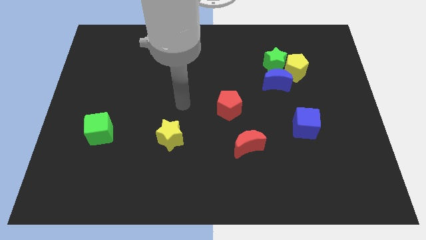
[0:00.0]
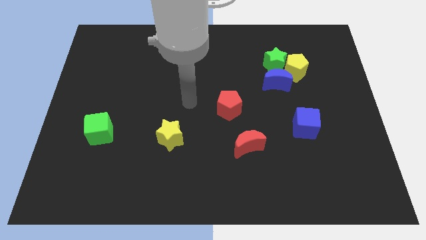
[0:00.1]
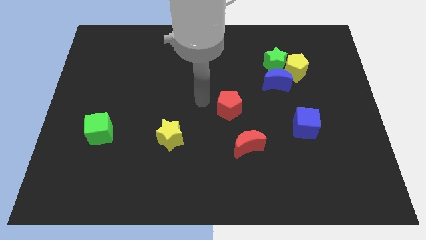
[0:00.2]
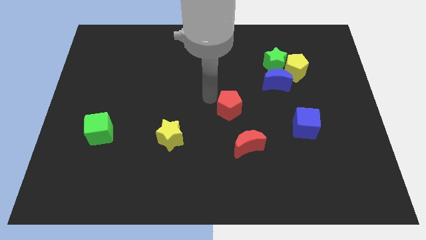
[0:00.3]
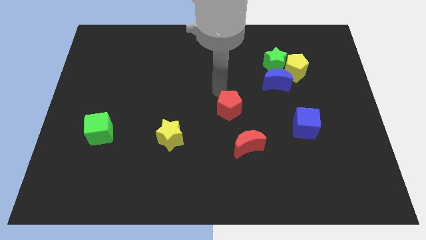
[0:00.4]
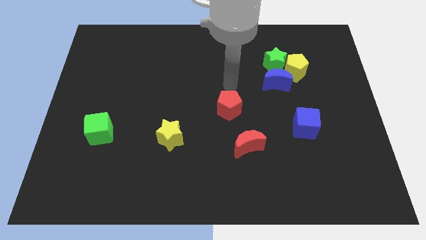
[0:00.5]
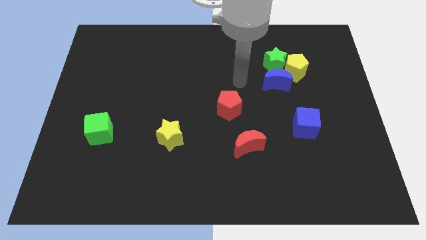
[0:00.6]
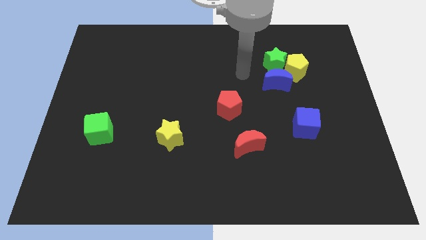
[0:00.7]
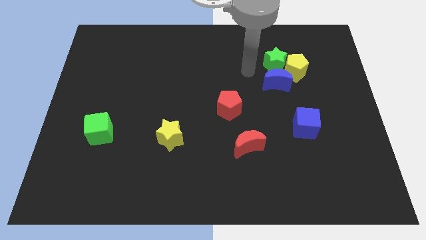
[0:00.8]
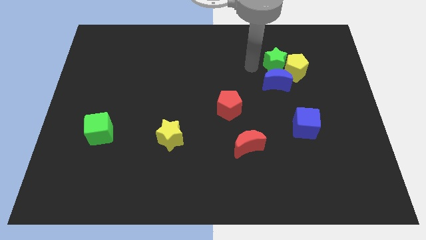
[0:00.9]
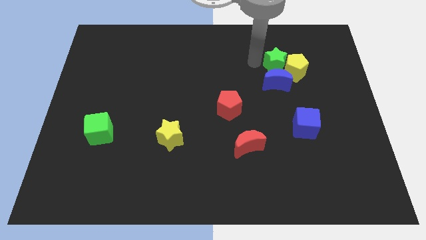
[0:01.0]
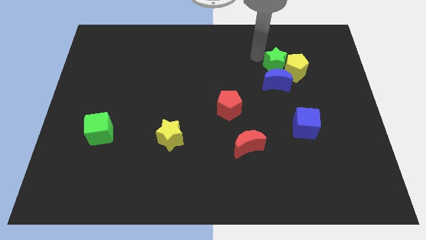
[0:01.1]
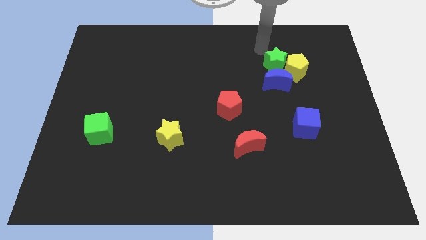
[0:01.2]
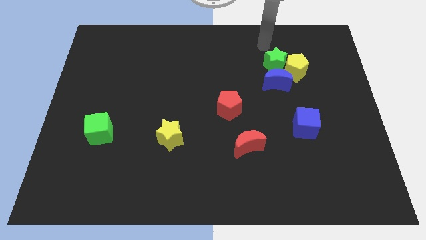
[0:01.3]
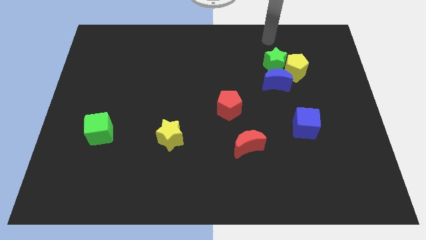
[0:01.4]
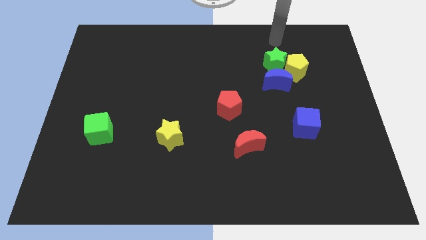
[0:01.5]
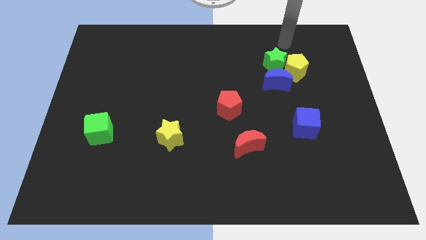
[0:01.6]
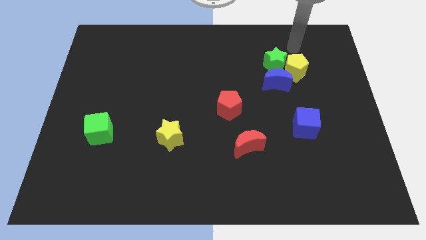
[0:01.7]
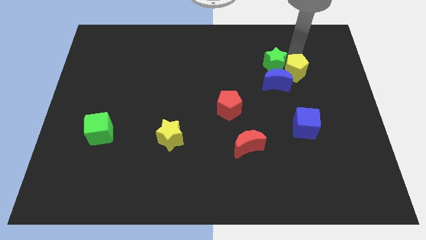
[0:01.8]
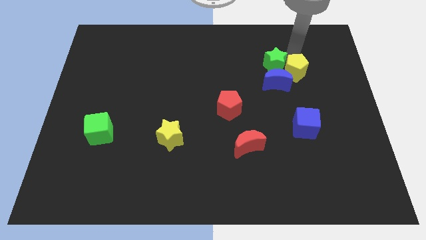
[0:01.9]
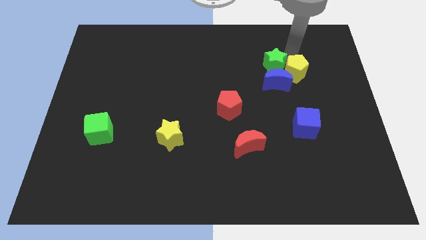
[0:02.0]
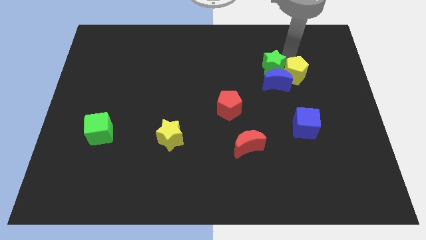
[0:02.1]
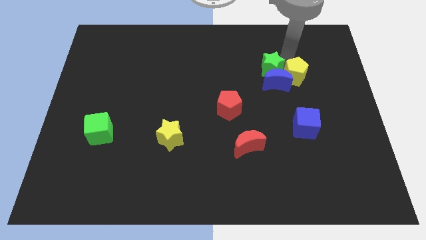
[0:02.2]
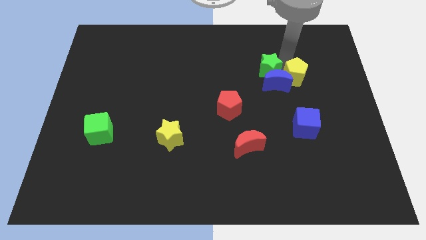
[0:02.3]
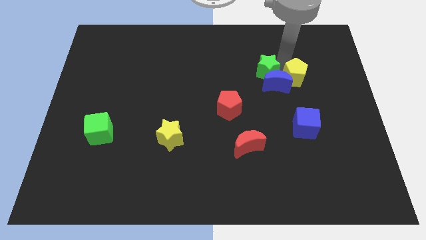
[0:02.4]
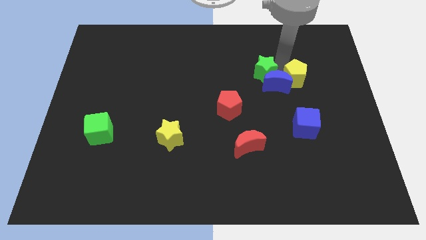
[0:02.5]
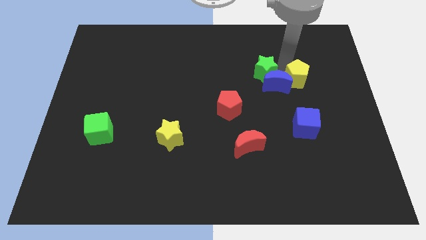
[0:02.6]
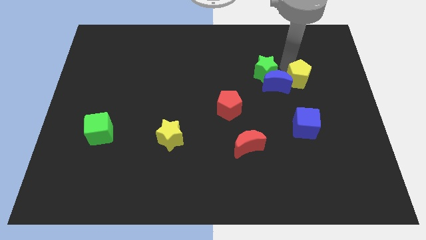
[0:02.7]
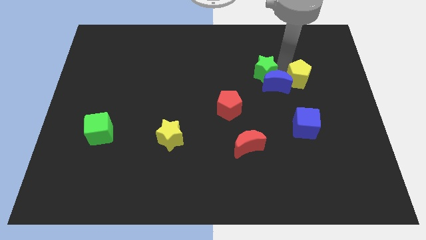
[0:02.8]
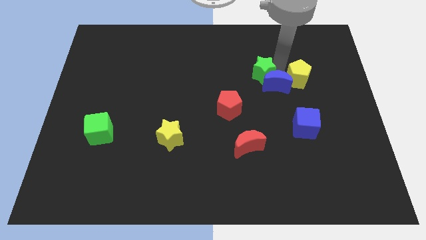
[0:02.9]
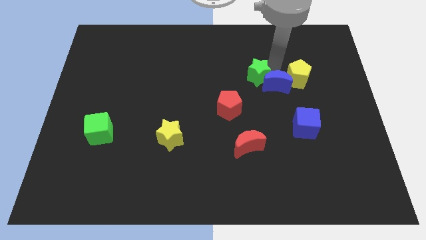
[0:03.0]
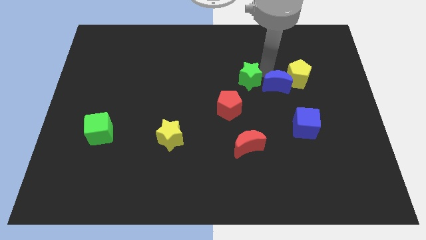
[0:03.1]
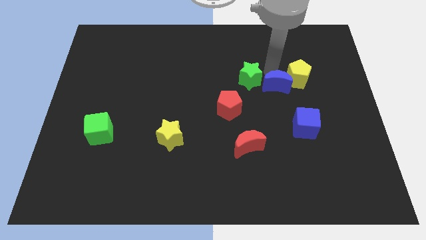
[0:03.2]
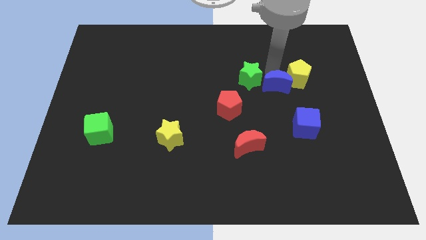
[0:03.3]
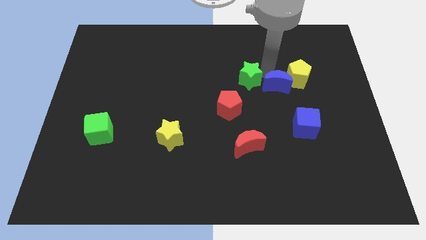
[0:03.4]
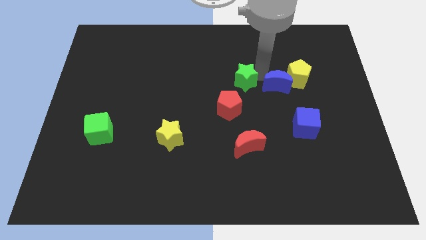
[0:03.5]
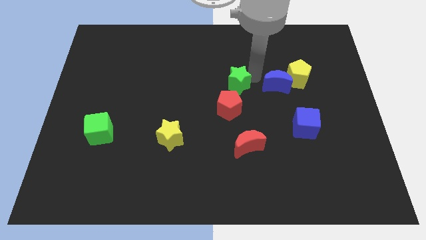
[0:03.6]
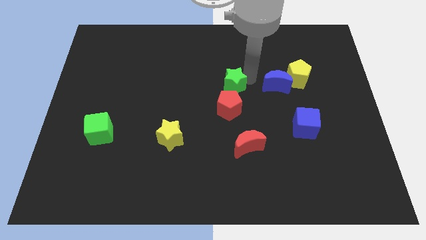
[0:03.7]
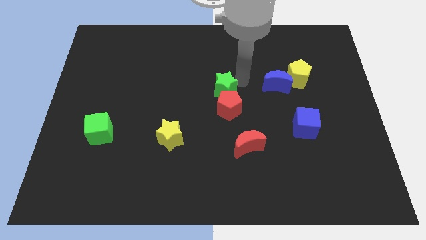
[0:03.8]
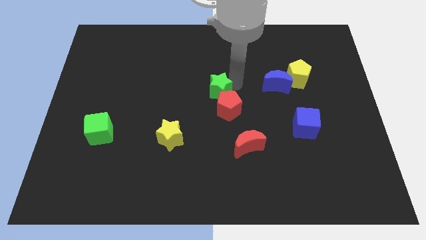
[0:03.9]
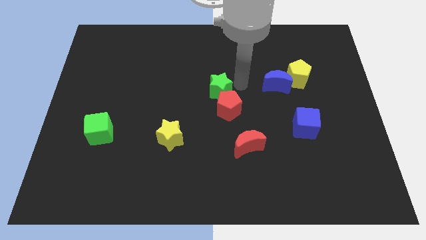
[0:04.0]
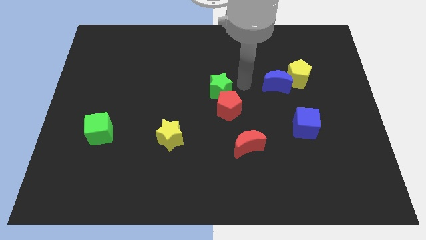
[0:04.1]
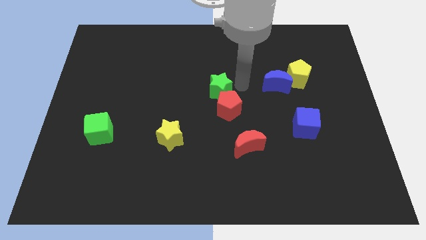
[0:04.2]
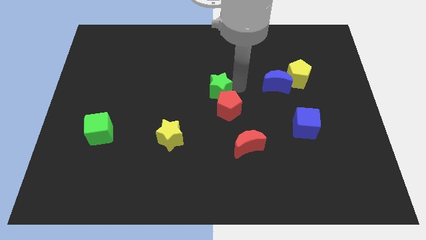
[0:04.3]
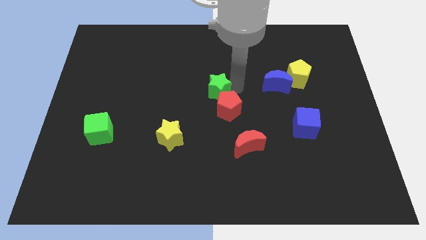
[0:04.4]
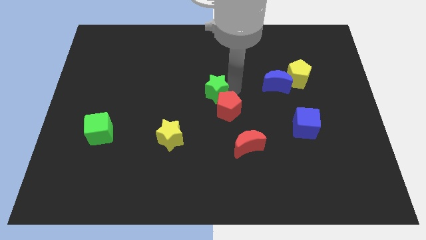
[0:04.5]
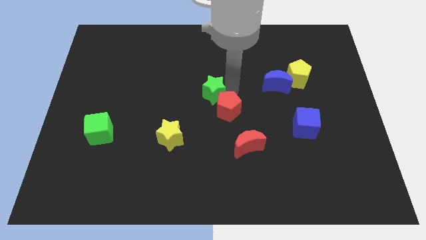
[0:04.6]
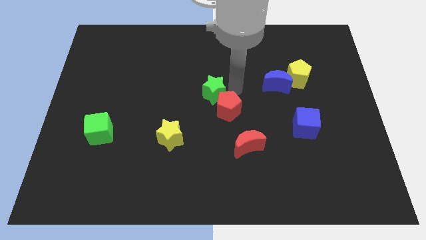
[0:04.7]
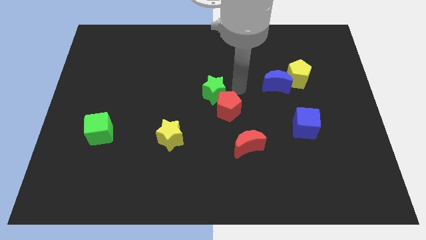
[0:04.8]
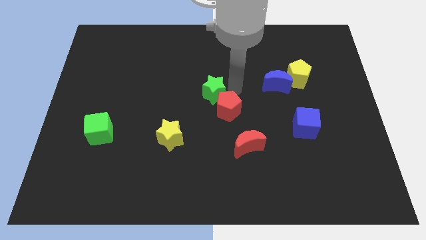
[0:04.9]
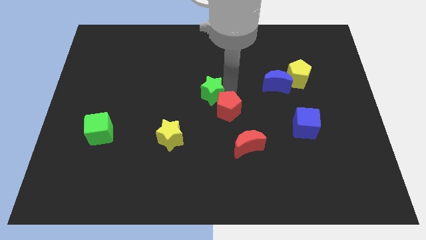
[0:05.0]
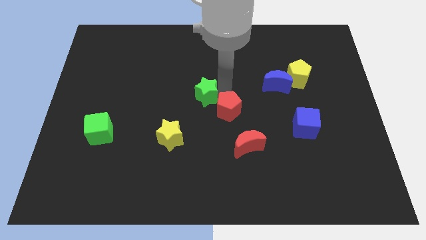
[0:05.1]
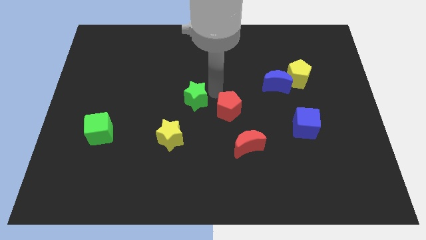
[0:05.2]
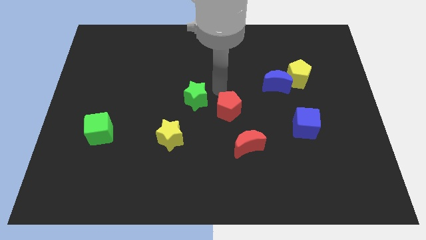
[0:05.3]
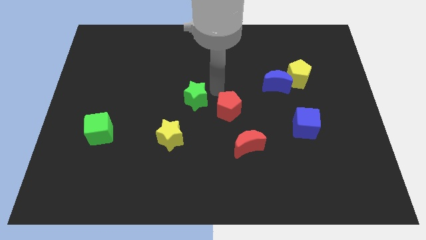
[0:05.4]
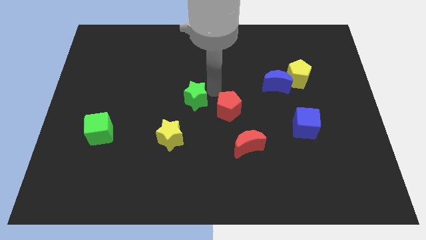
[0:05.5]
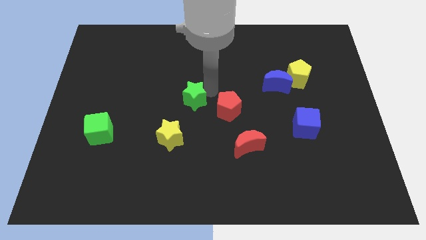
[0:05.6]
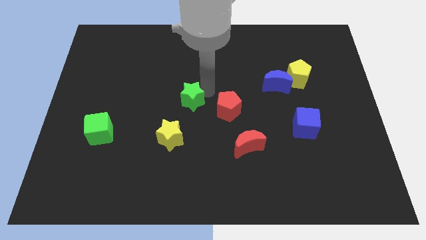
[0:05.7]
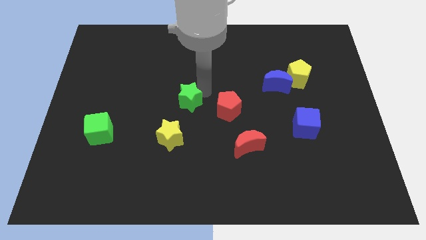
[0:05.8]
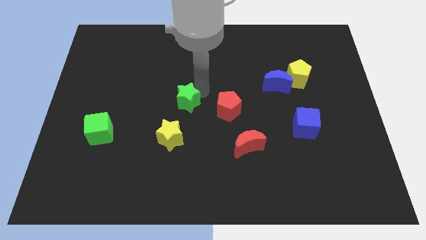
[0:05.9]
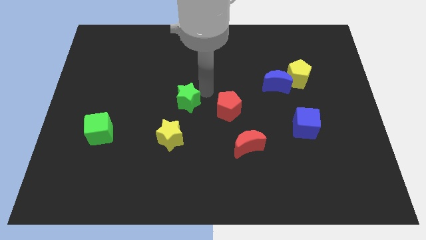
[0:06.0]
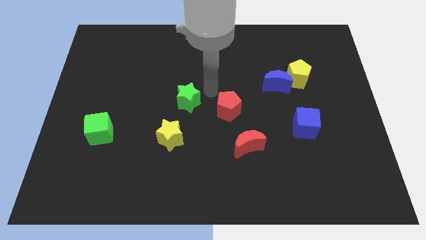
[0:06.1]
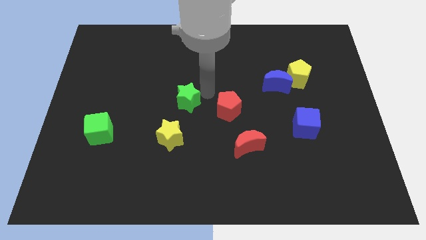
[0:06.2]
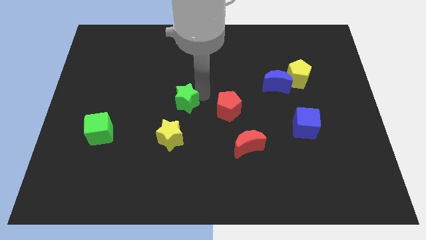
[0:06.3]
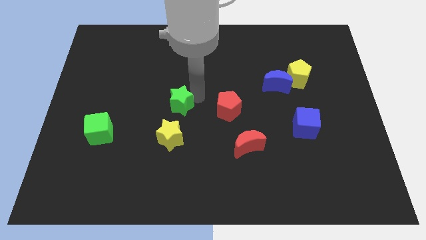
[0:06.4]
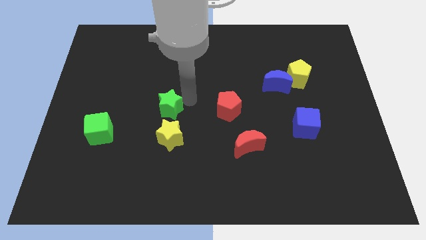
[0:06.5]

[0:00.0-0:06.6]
move the green star diagonally up and to the left of the yellow star
